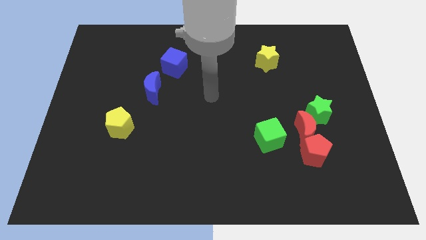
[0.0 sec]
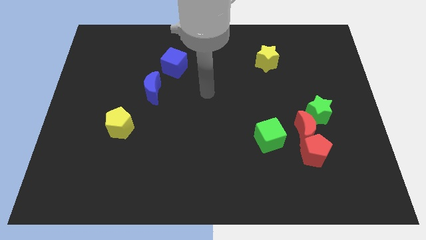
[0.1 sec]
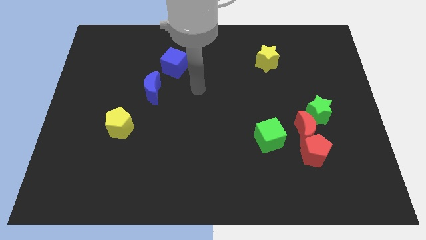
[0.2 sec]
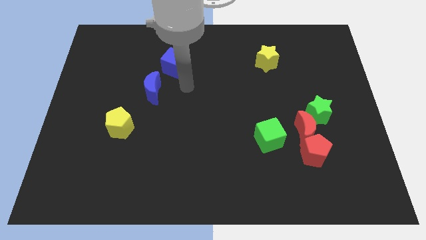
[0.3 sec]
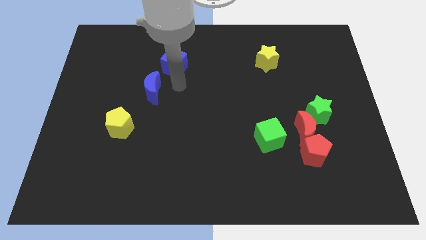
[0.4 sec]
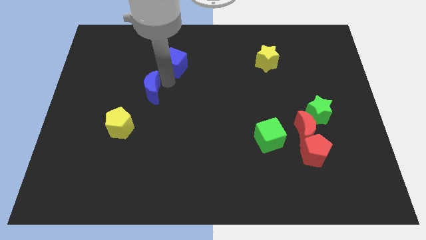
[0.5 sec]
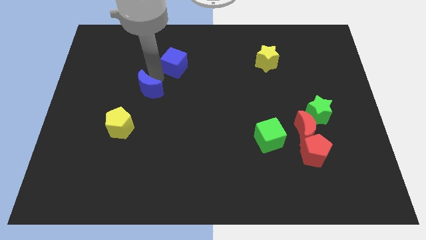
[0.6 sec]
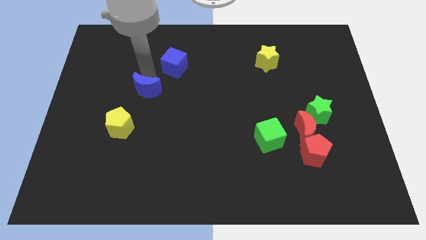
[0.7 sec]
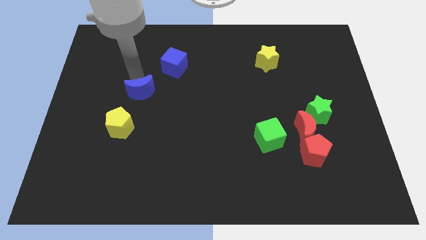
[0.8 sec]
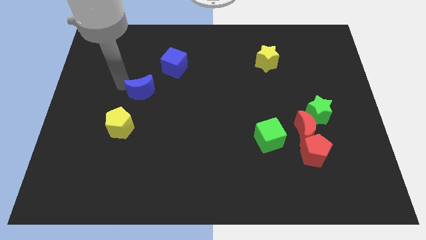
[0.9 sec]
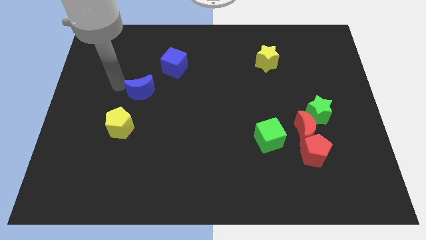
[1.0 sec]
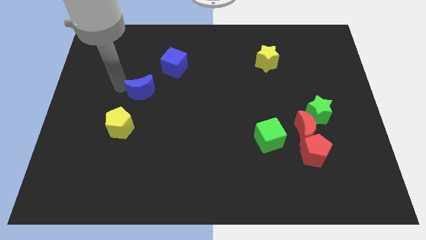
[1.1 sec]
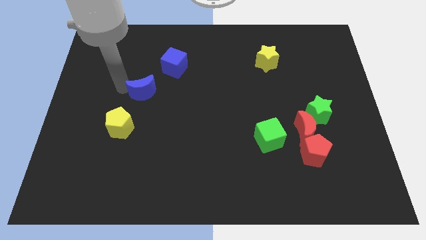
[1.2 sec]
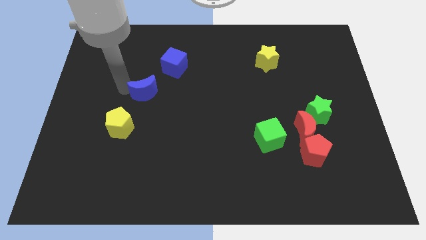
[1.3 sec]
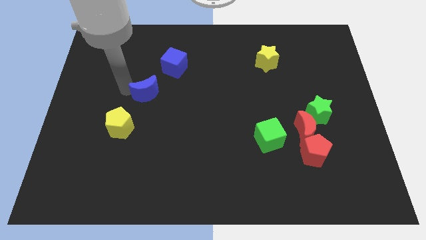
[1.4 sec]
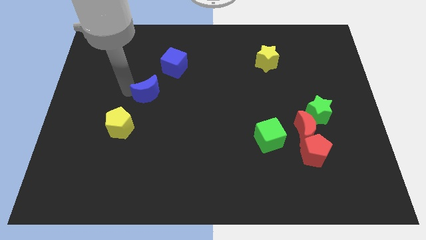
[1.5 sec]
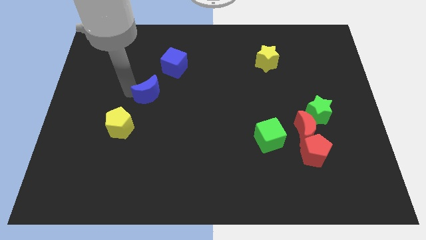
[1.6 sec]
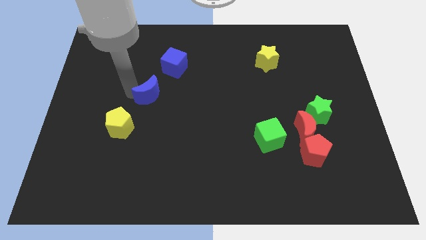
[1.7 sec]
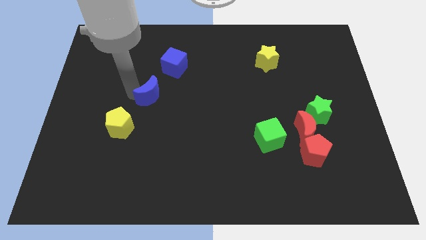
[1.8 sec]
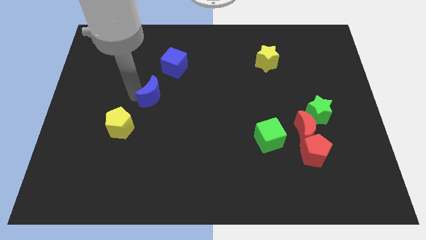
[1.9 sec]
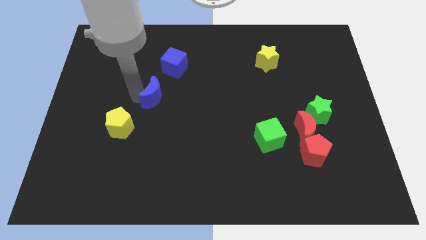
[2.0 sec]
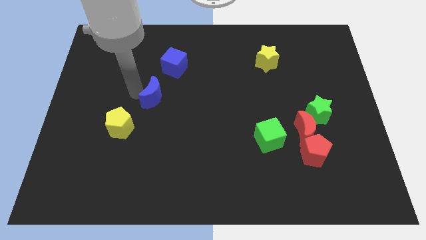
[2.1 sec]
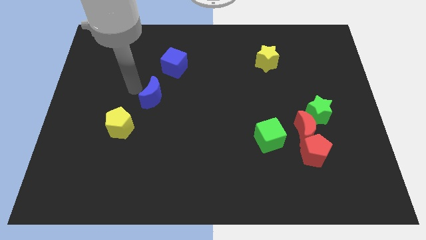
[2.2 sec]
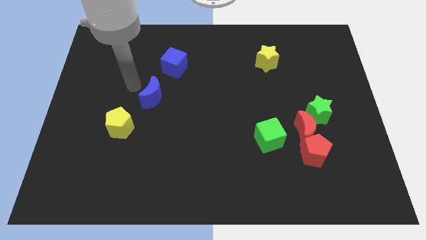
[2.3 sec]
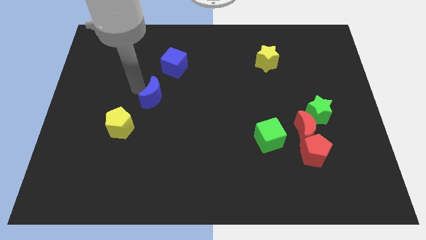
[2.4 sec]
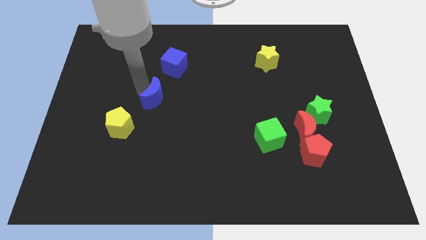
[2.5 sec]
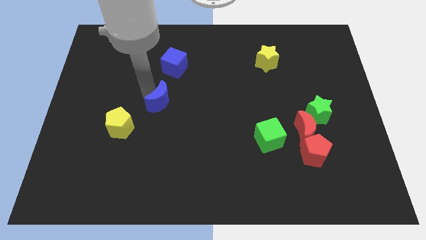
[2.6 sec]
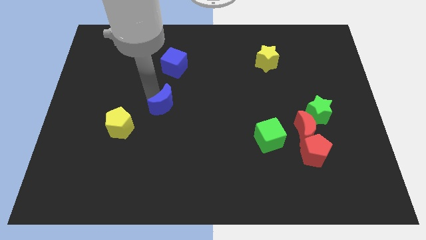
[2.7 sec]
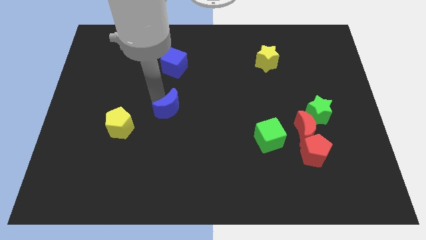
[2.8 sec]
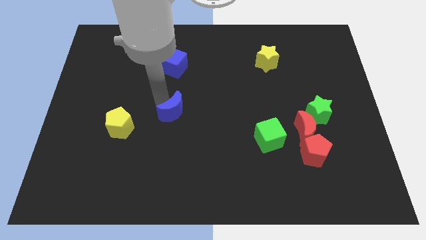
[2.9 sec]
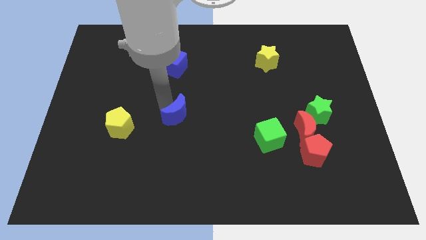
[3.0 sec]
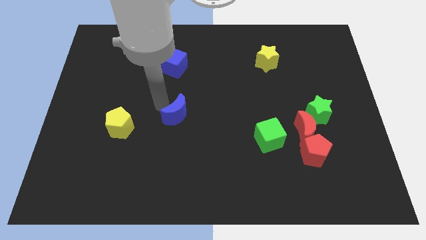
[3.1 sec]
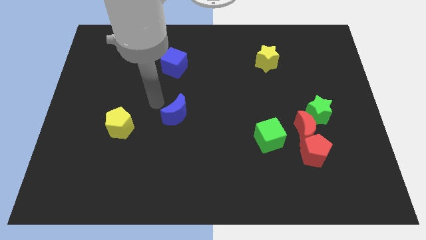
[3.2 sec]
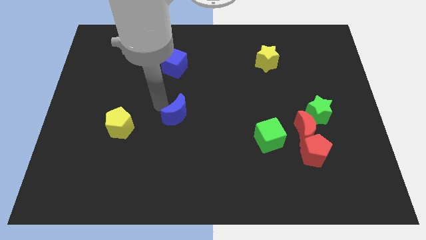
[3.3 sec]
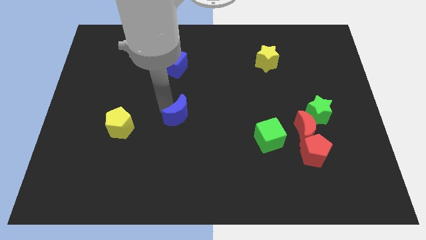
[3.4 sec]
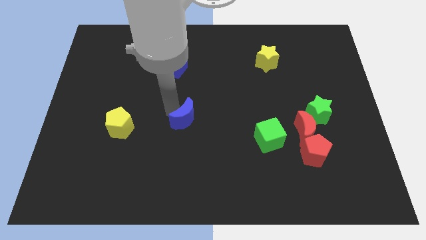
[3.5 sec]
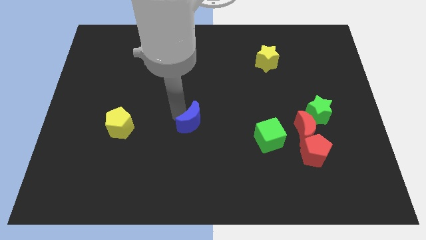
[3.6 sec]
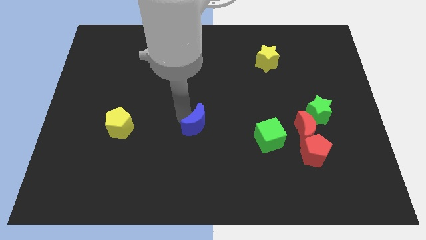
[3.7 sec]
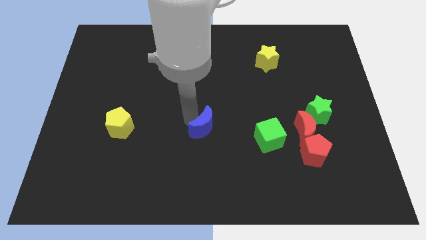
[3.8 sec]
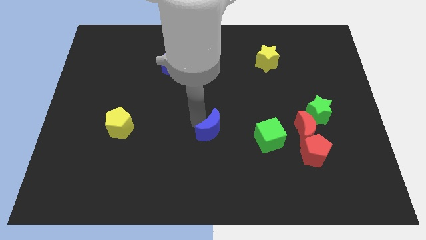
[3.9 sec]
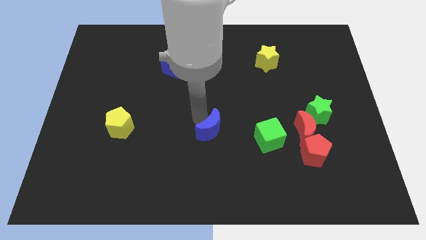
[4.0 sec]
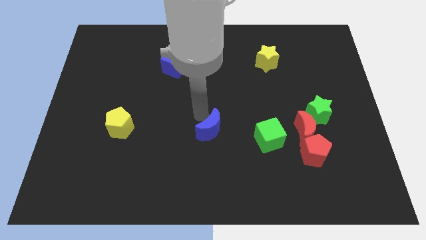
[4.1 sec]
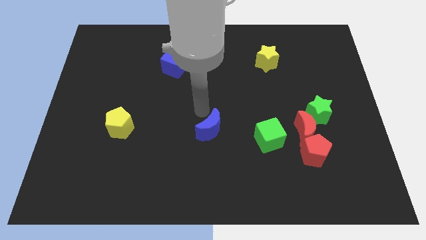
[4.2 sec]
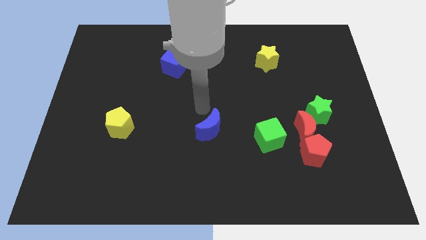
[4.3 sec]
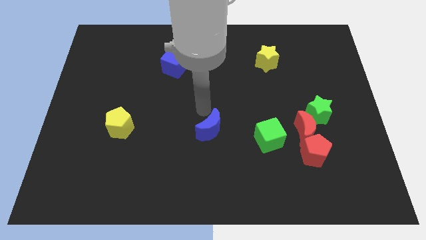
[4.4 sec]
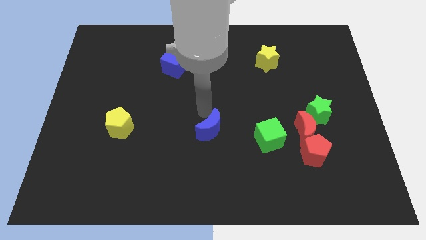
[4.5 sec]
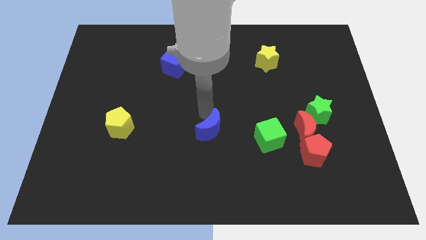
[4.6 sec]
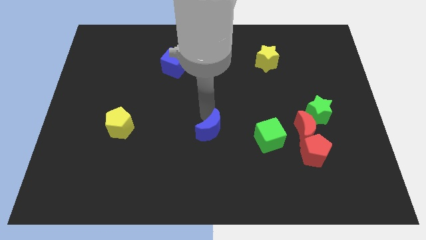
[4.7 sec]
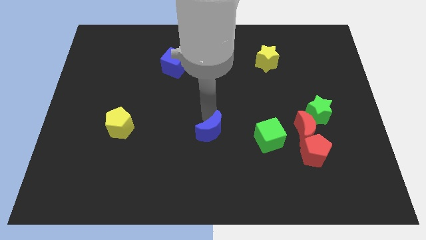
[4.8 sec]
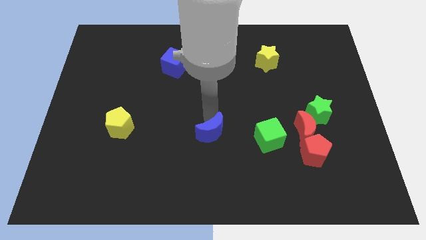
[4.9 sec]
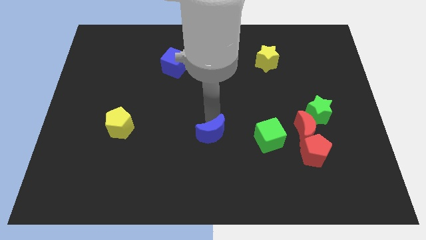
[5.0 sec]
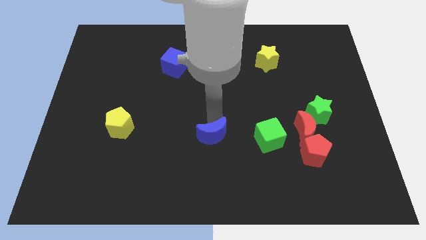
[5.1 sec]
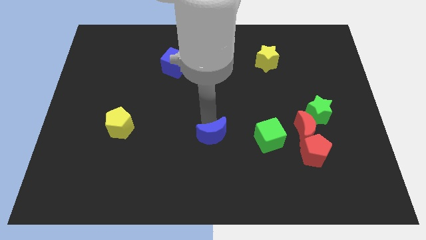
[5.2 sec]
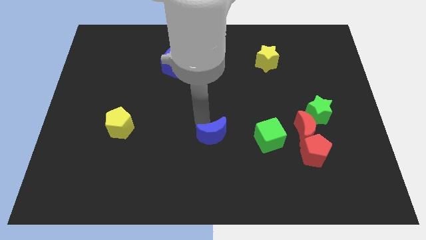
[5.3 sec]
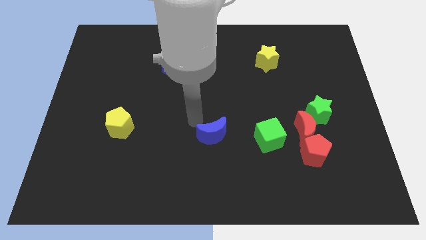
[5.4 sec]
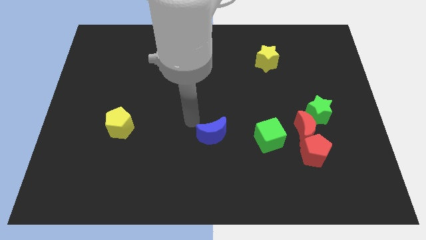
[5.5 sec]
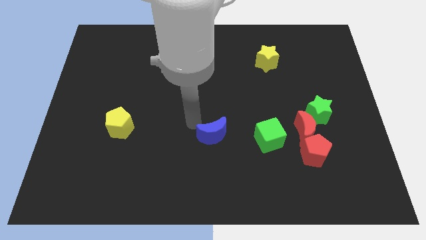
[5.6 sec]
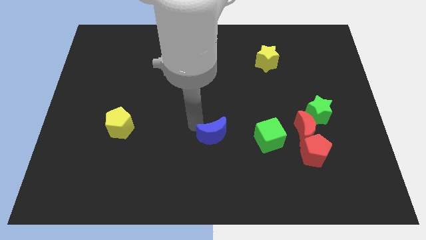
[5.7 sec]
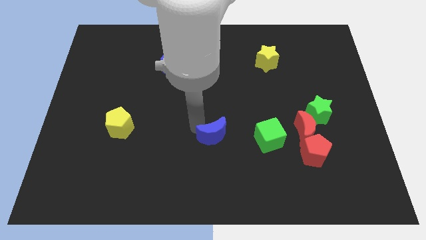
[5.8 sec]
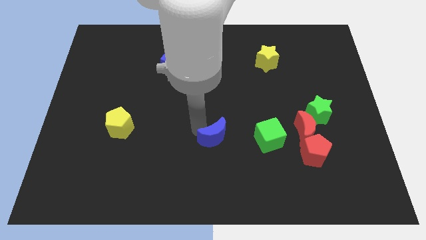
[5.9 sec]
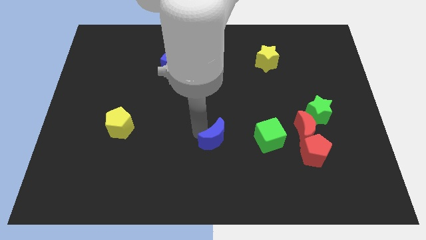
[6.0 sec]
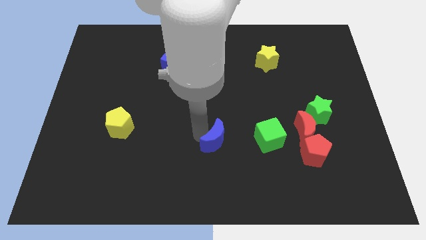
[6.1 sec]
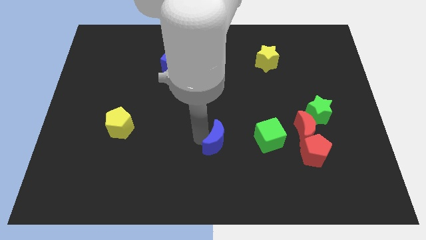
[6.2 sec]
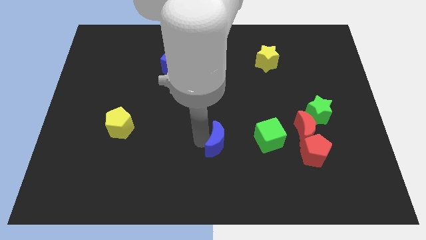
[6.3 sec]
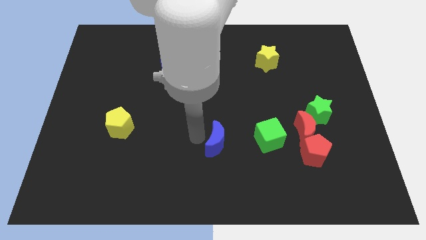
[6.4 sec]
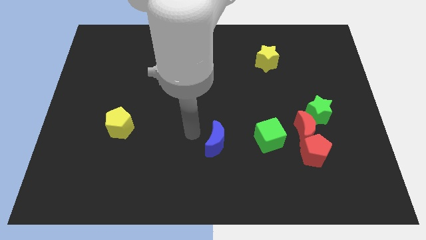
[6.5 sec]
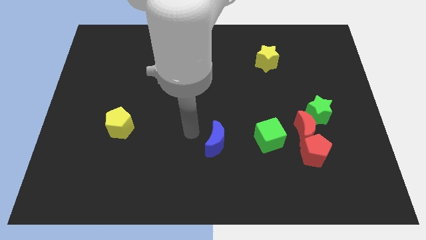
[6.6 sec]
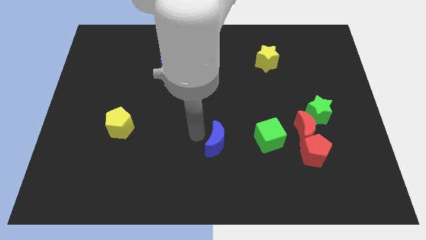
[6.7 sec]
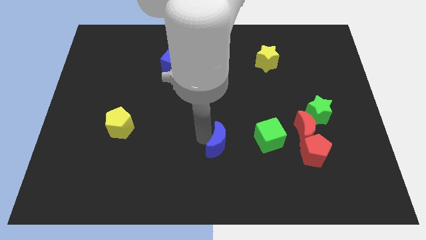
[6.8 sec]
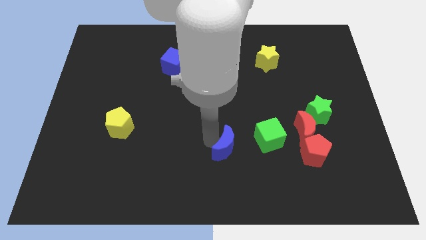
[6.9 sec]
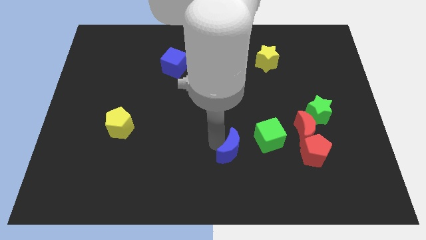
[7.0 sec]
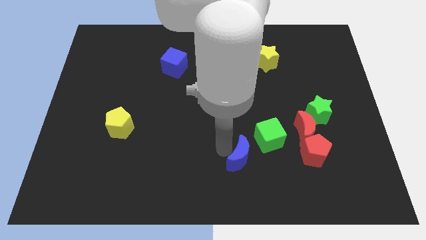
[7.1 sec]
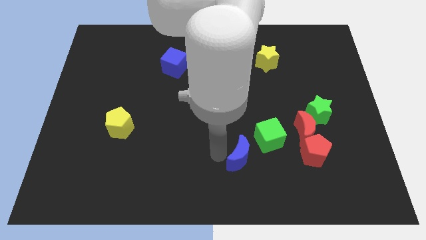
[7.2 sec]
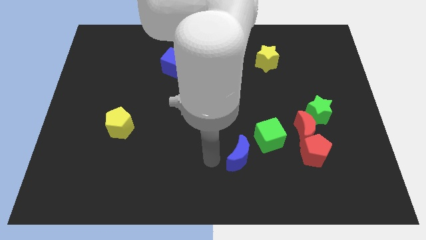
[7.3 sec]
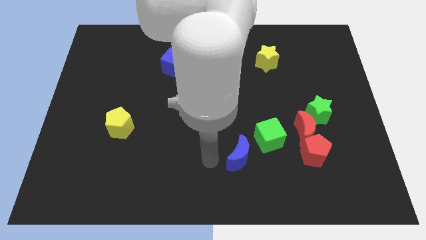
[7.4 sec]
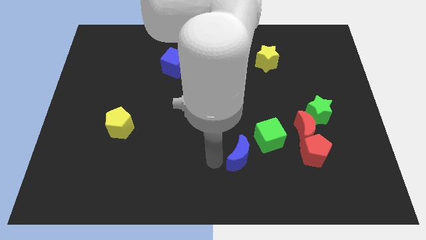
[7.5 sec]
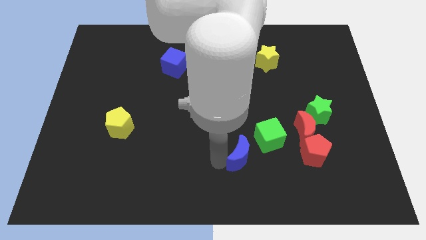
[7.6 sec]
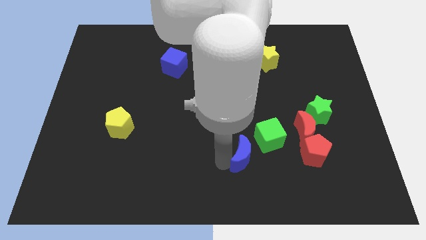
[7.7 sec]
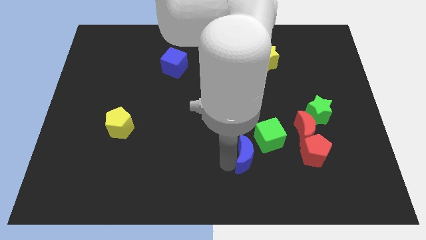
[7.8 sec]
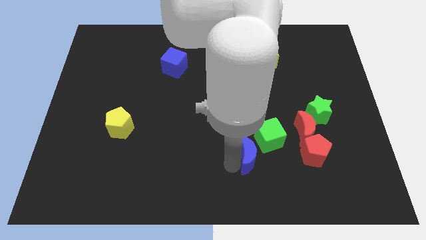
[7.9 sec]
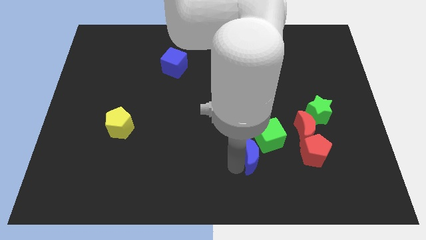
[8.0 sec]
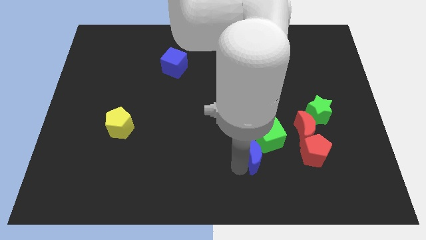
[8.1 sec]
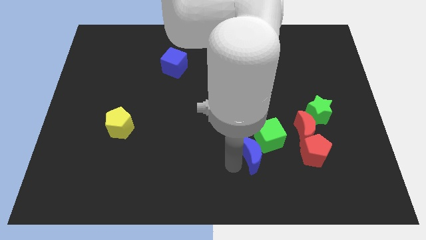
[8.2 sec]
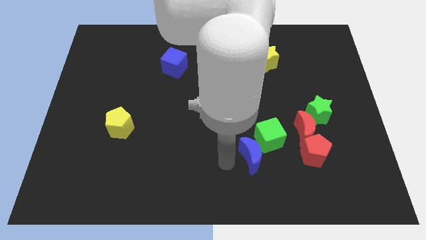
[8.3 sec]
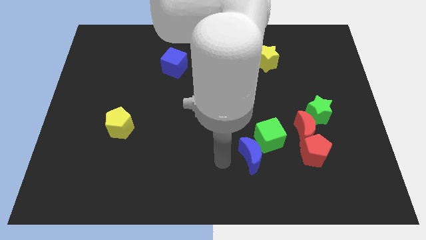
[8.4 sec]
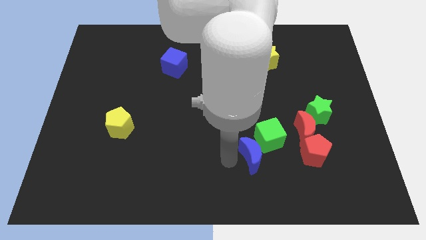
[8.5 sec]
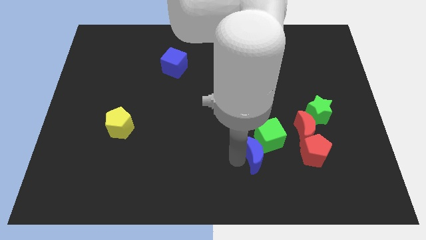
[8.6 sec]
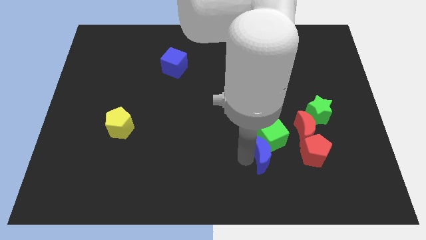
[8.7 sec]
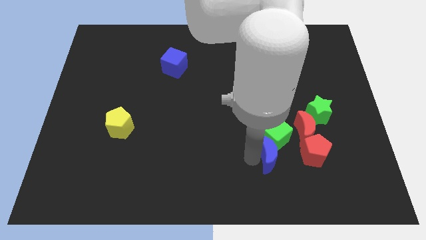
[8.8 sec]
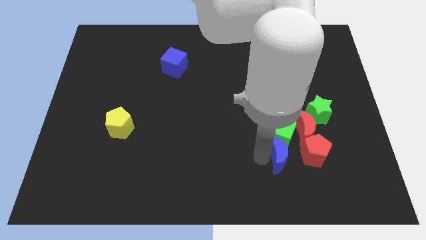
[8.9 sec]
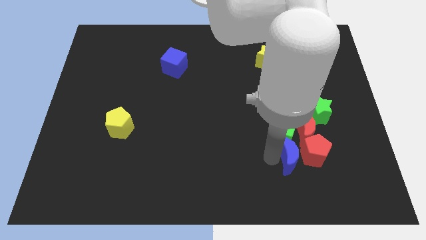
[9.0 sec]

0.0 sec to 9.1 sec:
move the blue moon next to the red pentagon
